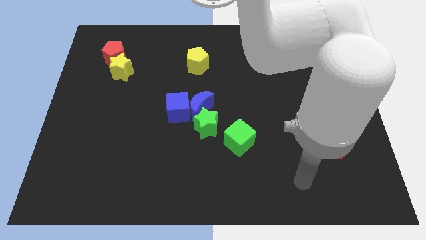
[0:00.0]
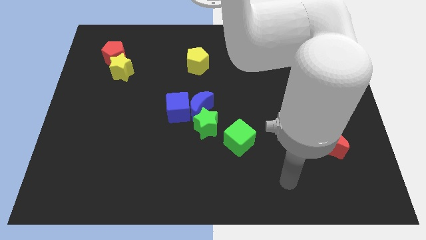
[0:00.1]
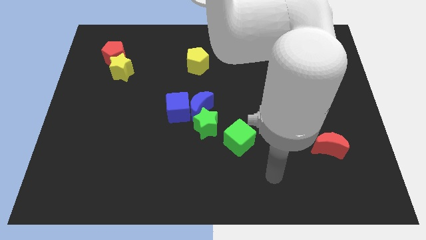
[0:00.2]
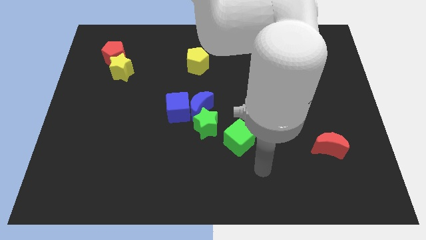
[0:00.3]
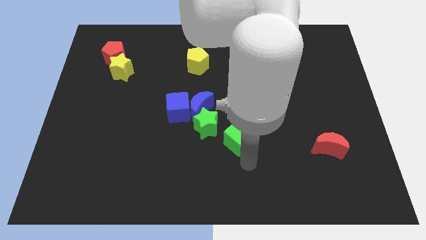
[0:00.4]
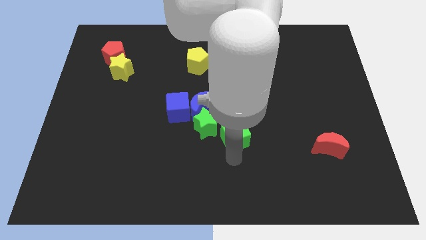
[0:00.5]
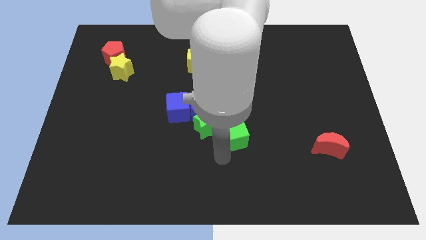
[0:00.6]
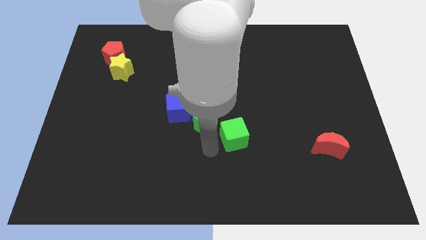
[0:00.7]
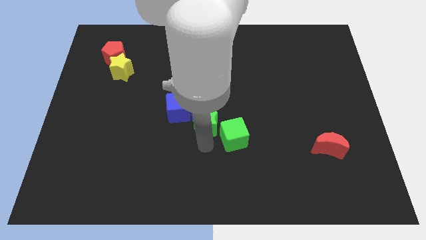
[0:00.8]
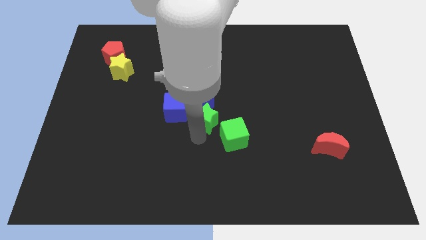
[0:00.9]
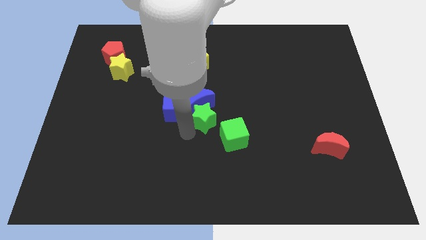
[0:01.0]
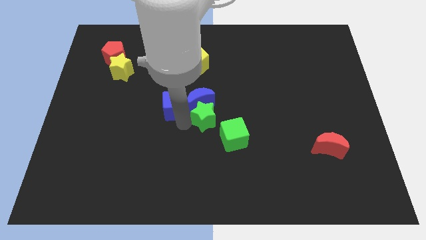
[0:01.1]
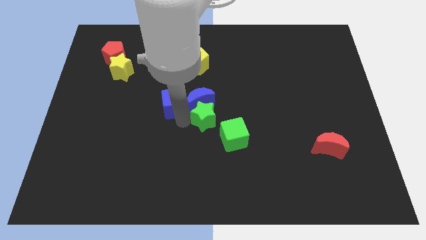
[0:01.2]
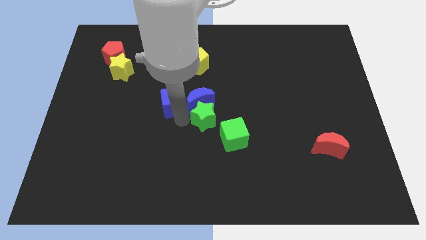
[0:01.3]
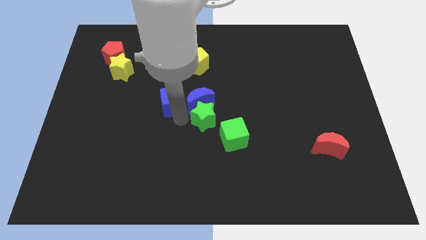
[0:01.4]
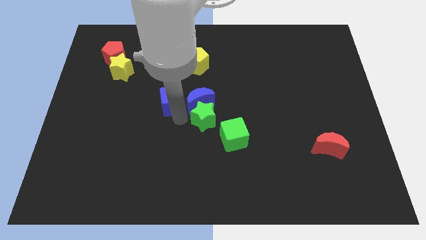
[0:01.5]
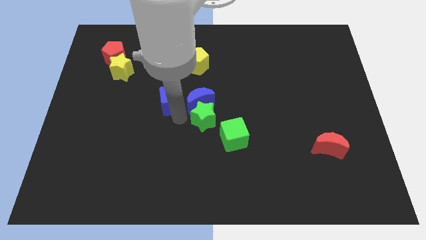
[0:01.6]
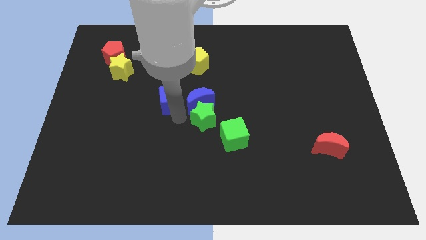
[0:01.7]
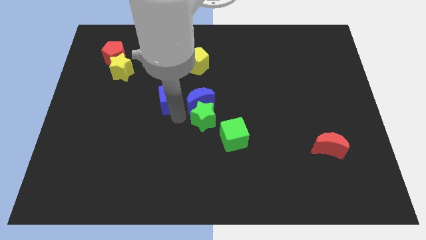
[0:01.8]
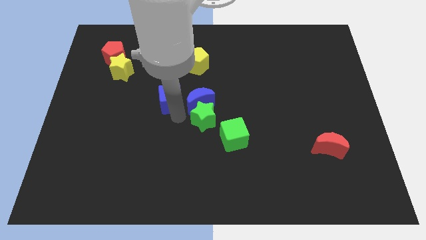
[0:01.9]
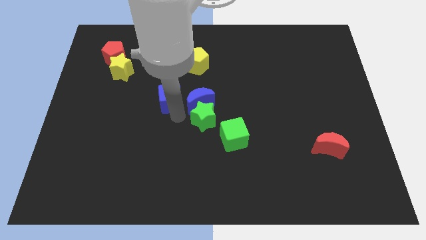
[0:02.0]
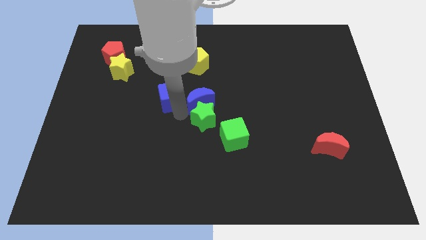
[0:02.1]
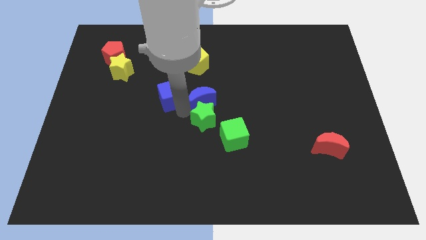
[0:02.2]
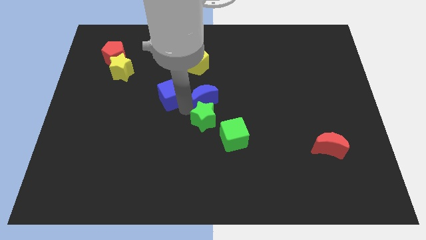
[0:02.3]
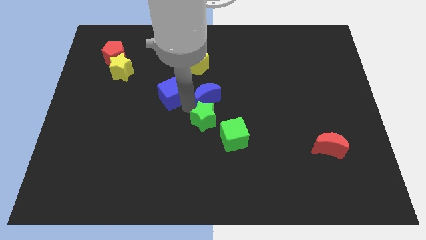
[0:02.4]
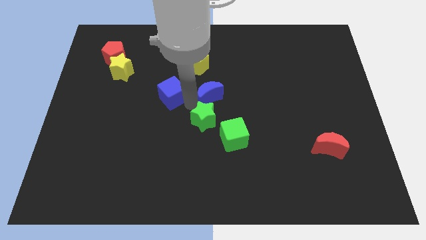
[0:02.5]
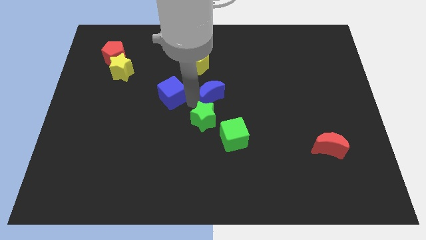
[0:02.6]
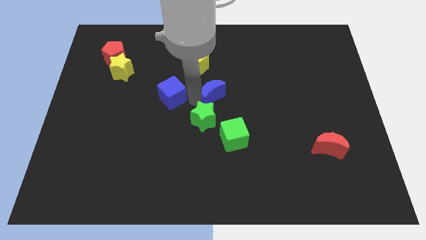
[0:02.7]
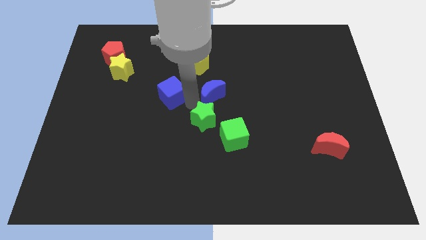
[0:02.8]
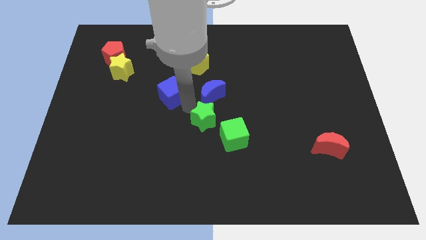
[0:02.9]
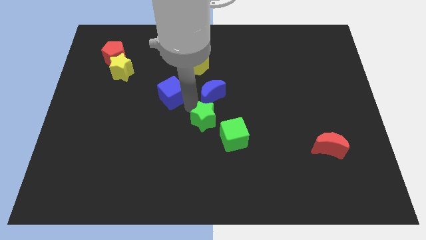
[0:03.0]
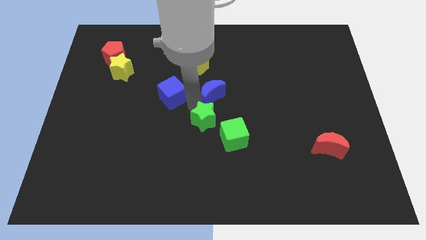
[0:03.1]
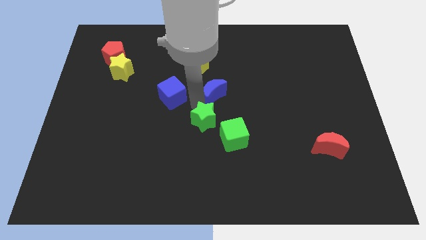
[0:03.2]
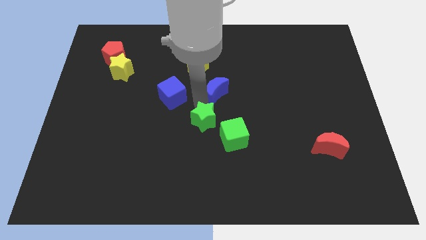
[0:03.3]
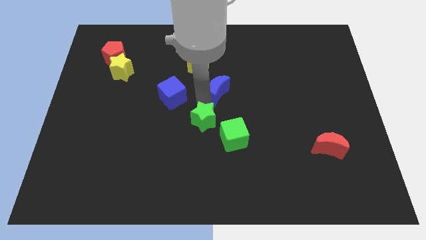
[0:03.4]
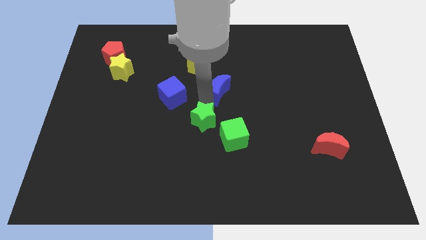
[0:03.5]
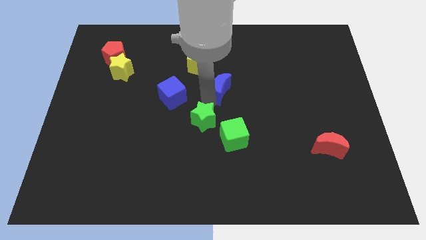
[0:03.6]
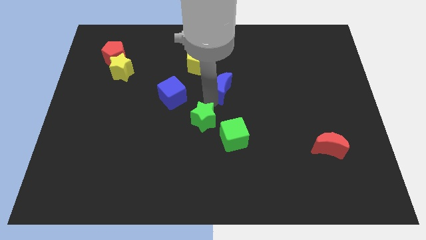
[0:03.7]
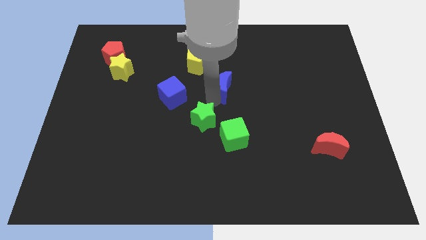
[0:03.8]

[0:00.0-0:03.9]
move the blue moon away from the blue cube and green star

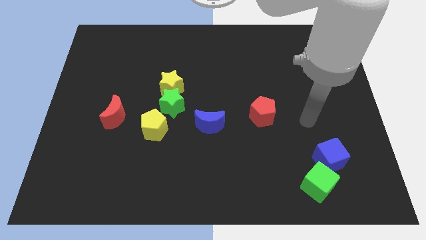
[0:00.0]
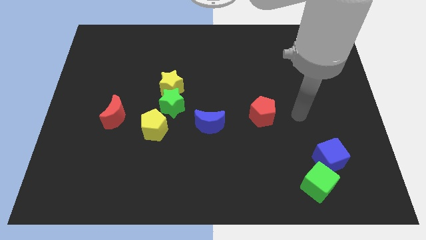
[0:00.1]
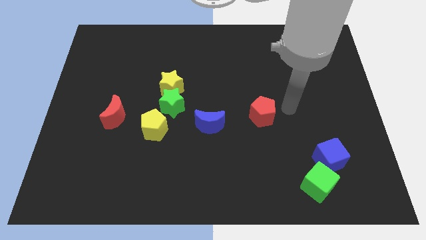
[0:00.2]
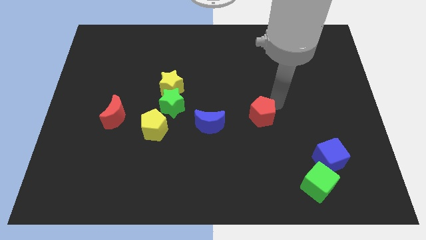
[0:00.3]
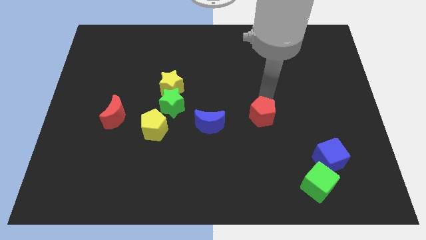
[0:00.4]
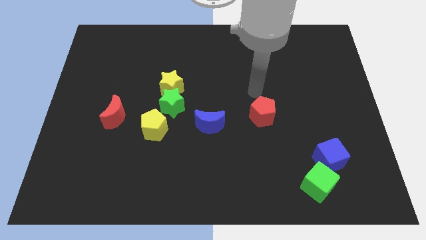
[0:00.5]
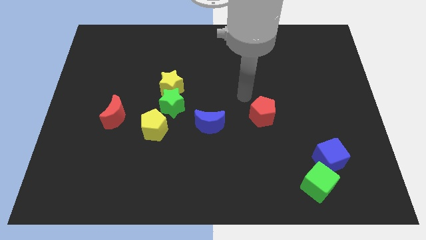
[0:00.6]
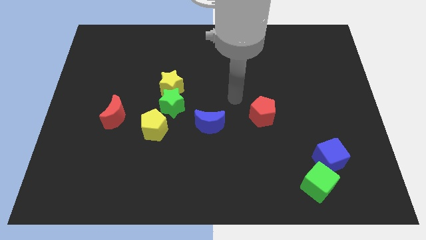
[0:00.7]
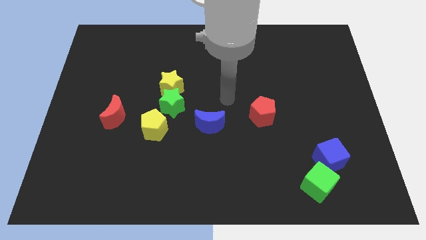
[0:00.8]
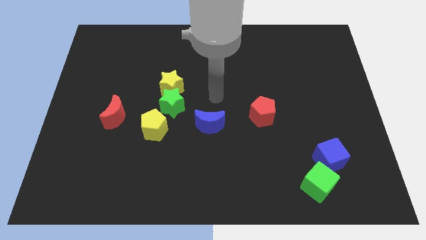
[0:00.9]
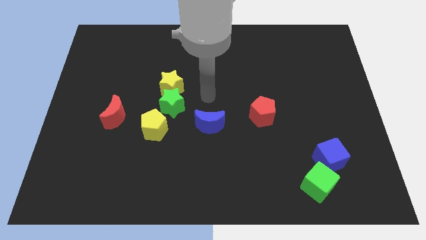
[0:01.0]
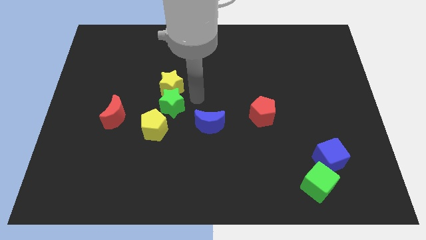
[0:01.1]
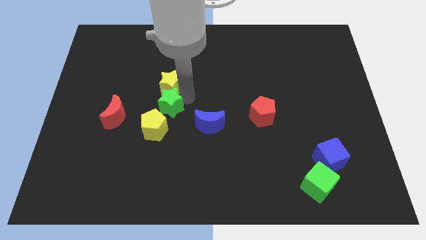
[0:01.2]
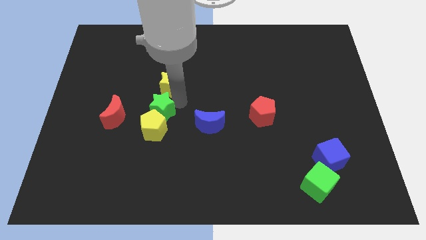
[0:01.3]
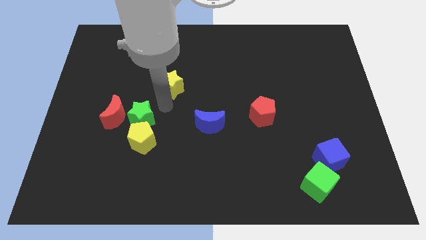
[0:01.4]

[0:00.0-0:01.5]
separate the yellow star from the green star

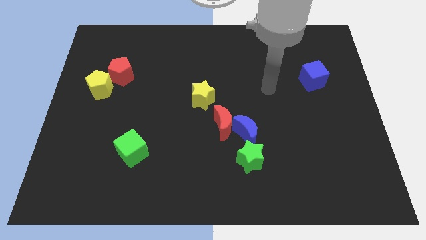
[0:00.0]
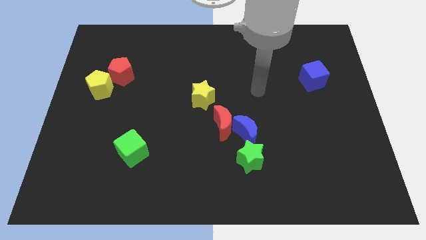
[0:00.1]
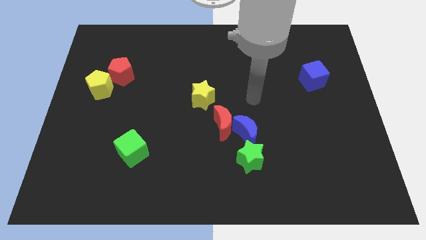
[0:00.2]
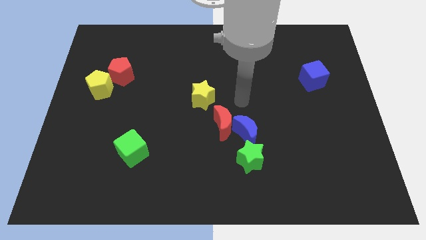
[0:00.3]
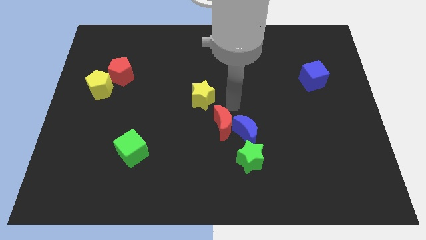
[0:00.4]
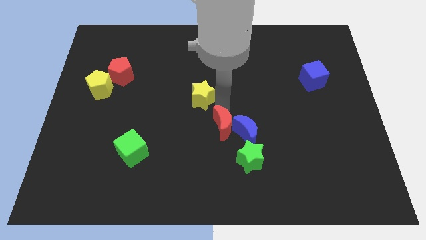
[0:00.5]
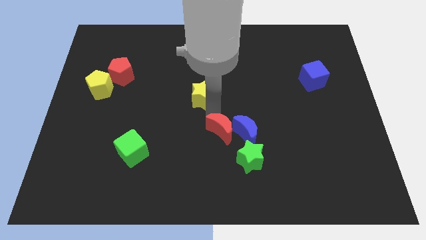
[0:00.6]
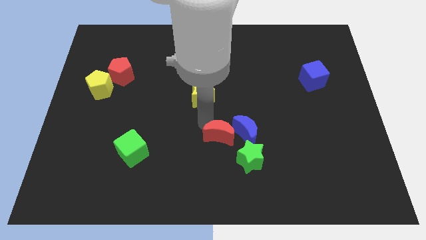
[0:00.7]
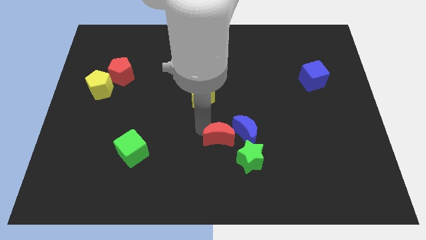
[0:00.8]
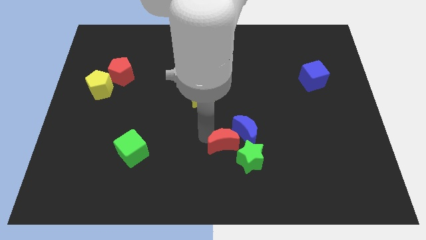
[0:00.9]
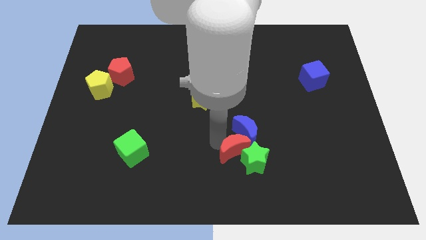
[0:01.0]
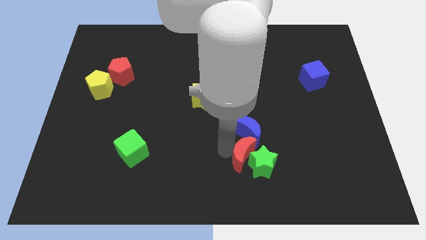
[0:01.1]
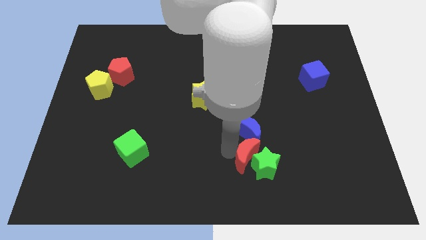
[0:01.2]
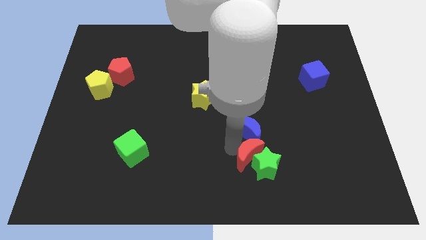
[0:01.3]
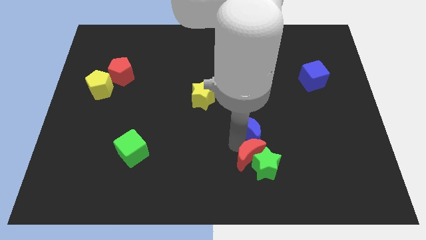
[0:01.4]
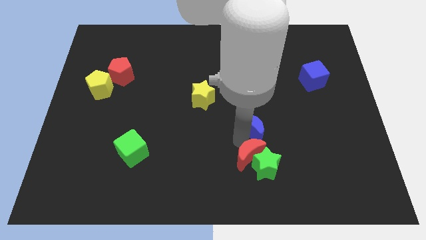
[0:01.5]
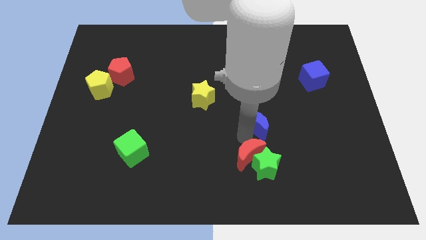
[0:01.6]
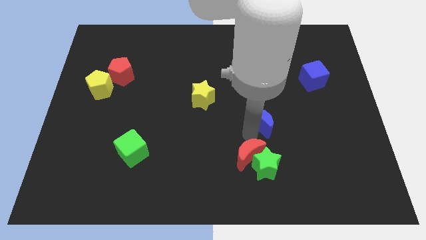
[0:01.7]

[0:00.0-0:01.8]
separate the blue moon from the red moon and green star

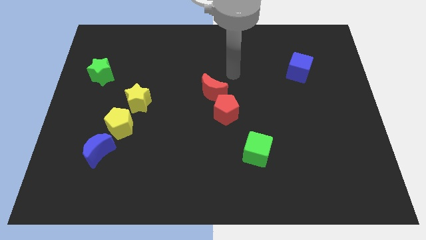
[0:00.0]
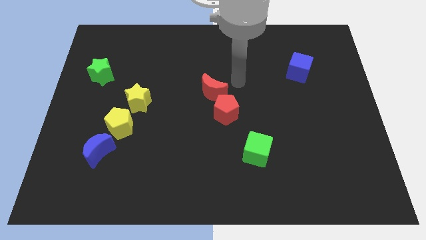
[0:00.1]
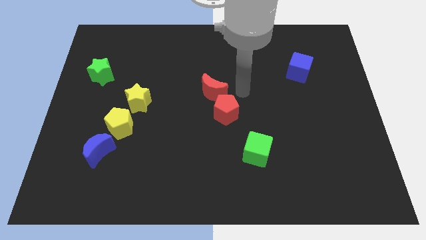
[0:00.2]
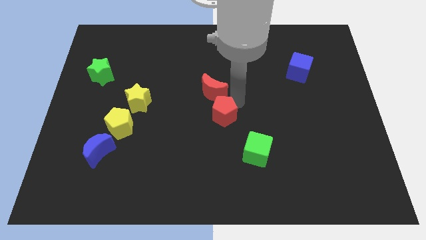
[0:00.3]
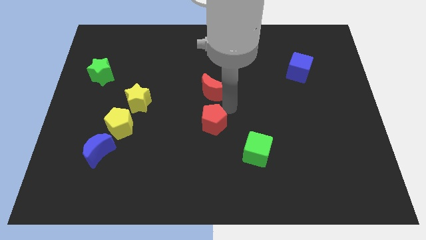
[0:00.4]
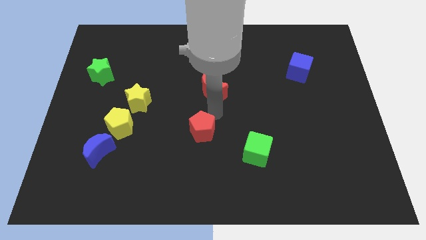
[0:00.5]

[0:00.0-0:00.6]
separate the red moon from the red pentagon

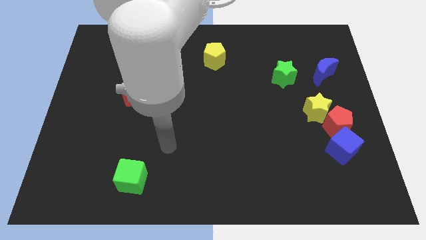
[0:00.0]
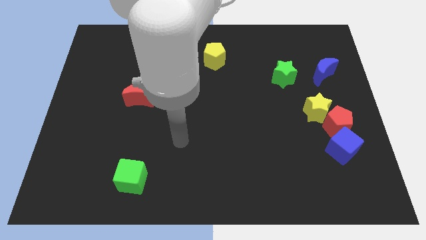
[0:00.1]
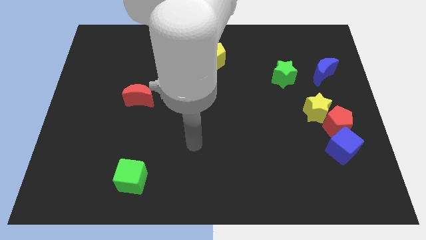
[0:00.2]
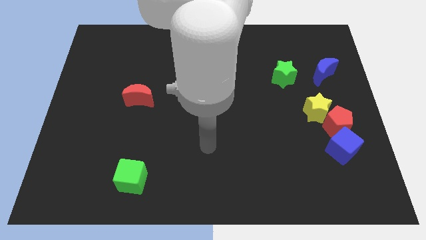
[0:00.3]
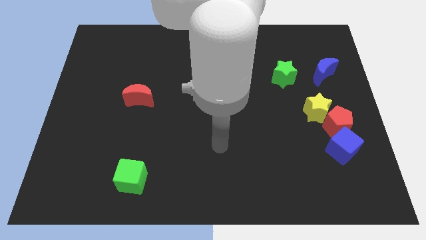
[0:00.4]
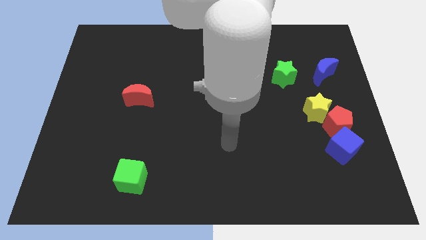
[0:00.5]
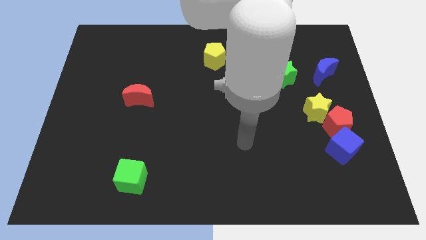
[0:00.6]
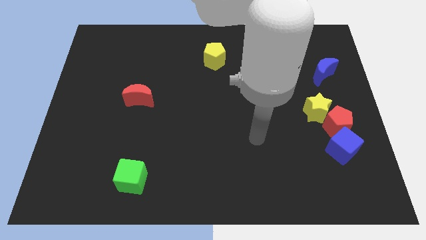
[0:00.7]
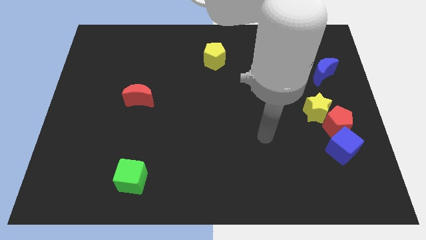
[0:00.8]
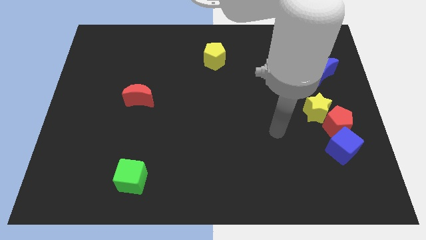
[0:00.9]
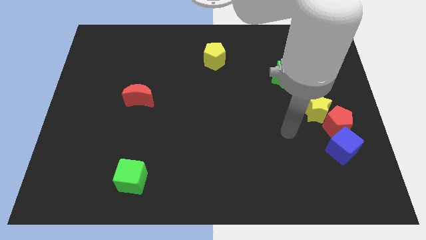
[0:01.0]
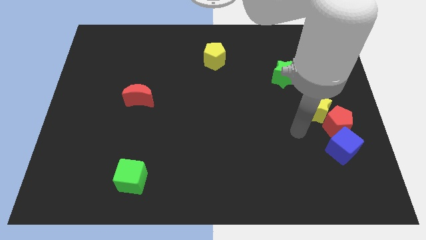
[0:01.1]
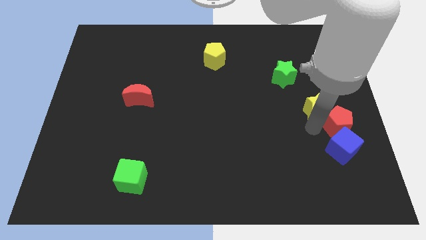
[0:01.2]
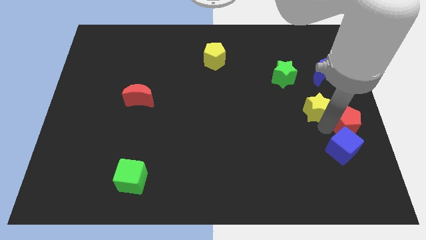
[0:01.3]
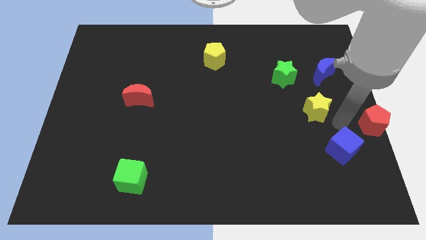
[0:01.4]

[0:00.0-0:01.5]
separate the yellow star from the red pentagon
